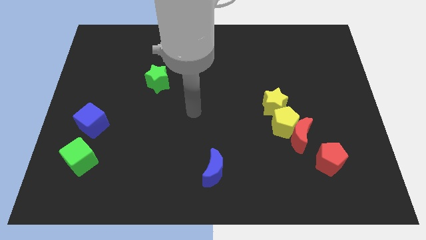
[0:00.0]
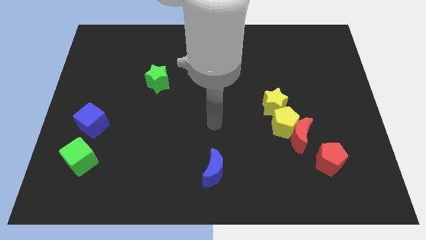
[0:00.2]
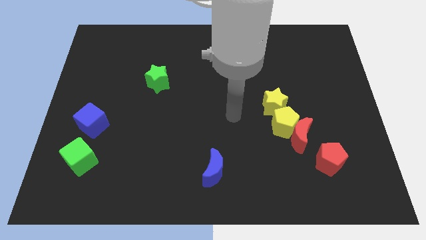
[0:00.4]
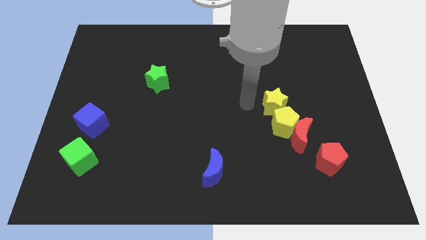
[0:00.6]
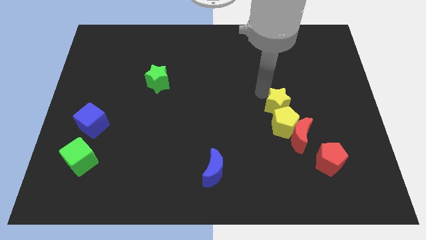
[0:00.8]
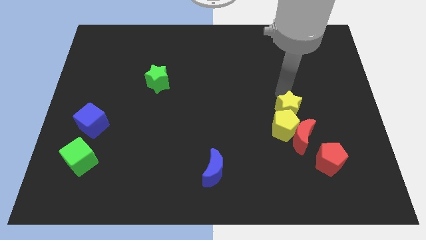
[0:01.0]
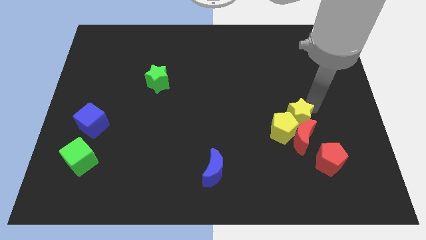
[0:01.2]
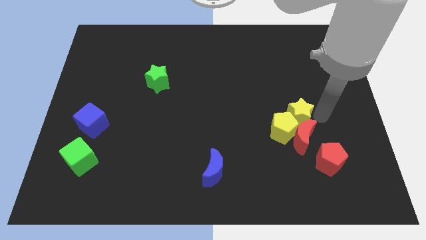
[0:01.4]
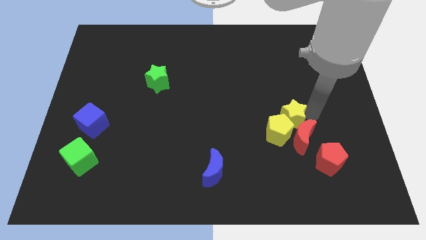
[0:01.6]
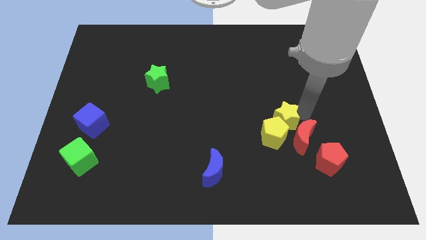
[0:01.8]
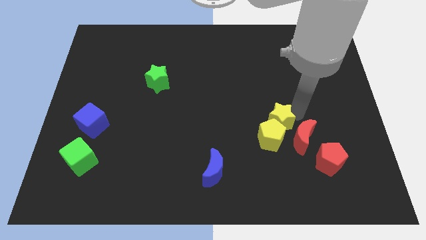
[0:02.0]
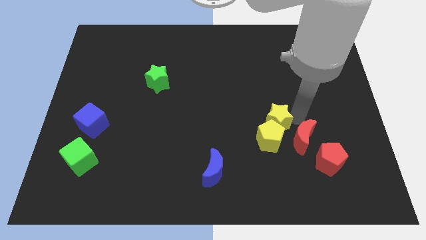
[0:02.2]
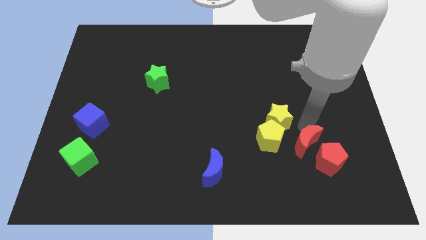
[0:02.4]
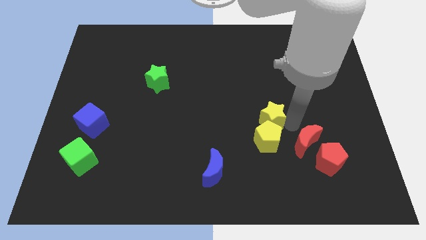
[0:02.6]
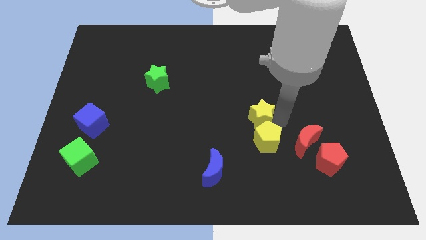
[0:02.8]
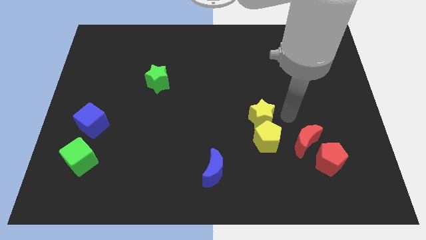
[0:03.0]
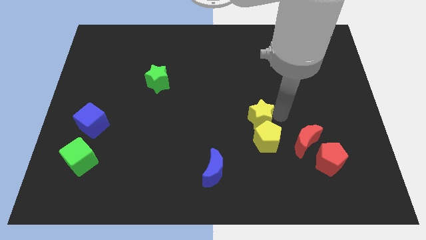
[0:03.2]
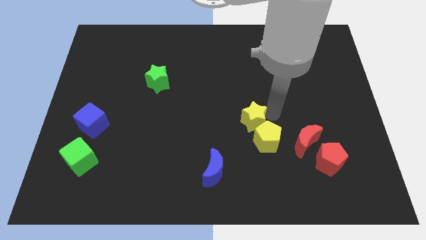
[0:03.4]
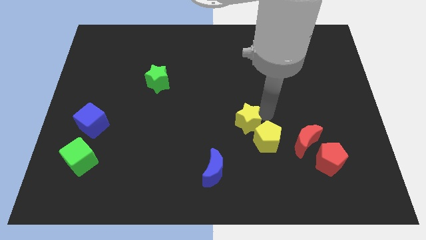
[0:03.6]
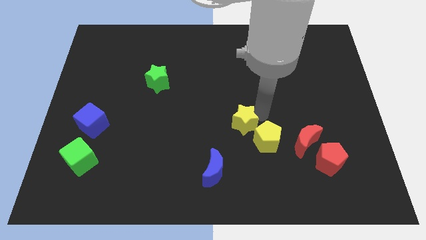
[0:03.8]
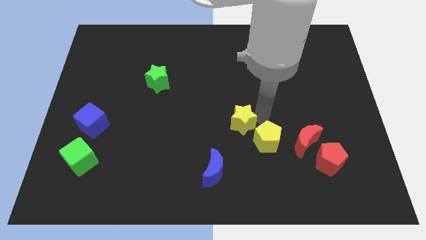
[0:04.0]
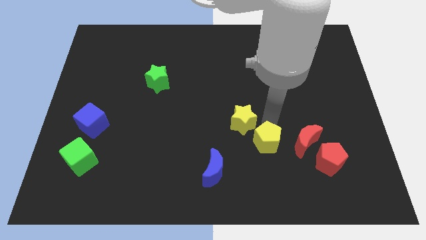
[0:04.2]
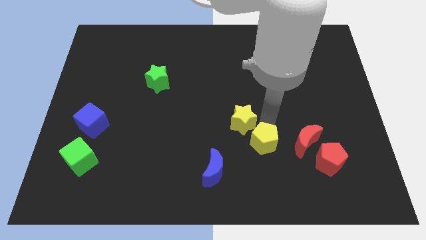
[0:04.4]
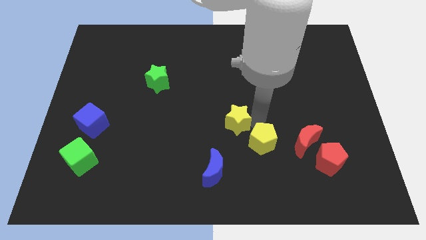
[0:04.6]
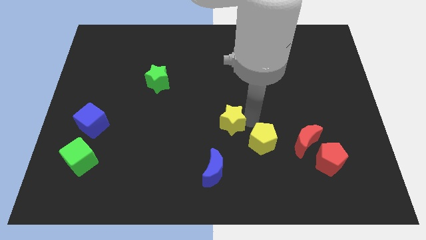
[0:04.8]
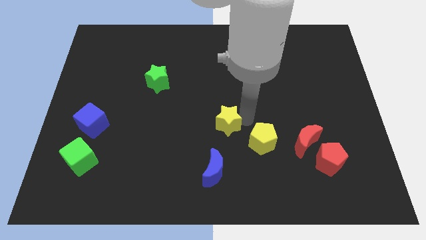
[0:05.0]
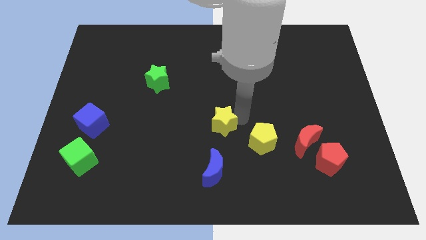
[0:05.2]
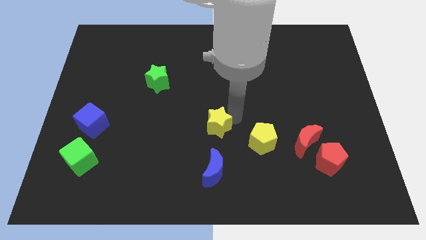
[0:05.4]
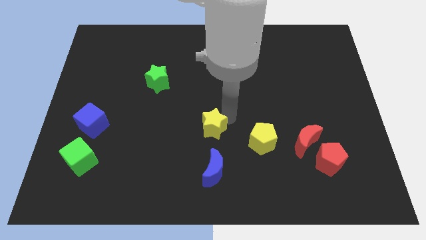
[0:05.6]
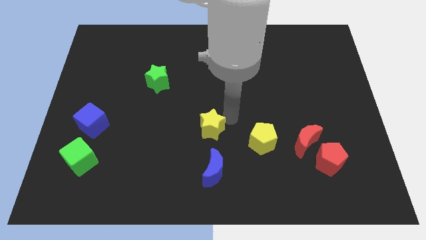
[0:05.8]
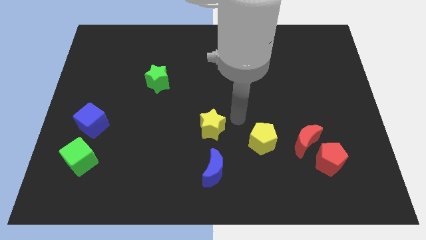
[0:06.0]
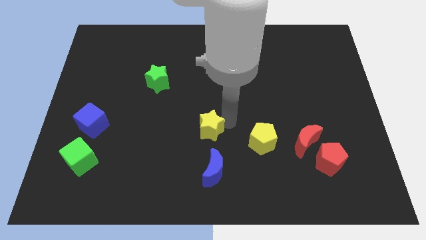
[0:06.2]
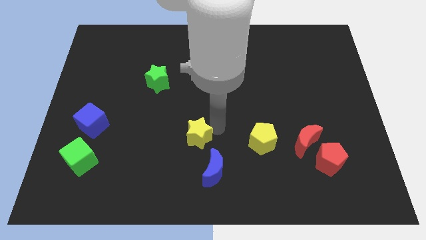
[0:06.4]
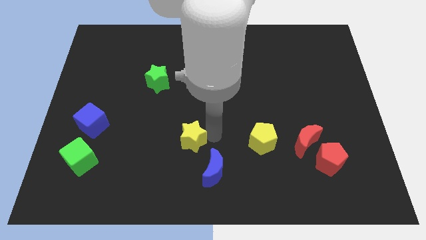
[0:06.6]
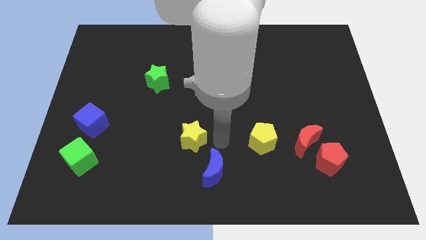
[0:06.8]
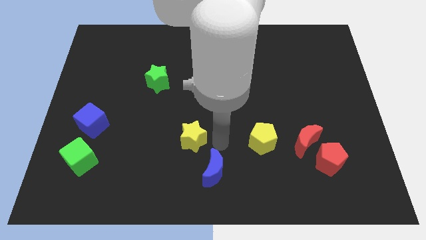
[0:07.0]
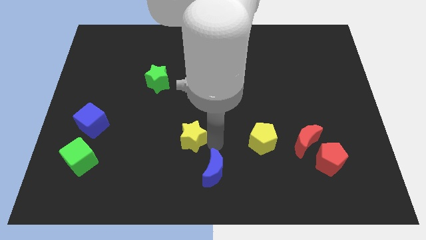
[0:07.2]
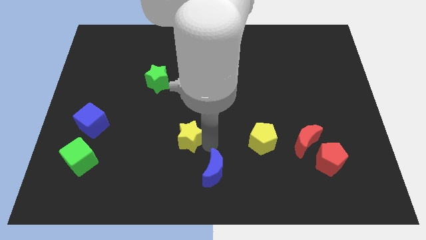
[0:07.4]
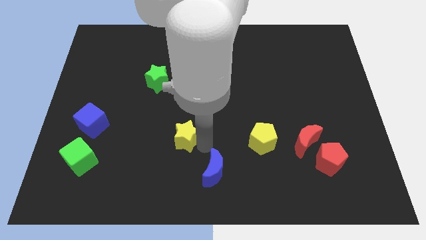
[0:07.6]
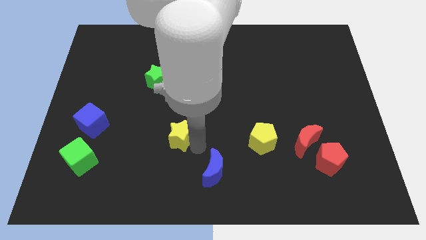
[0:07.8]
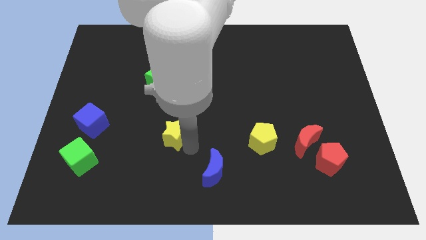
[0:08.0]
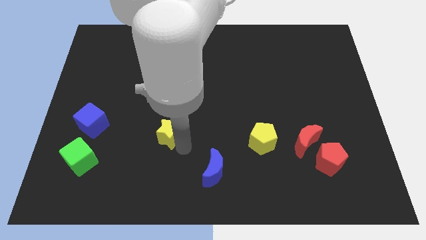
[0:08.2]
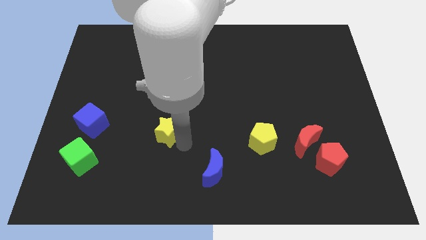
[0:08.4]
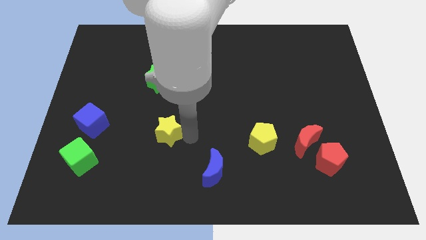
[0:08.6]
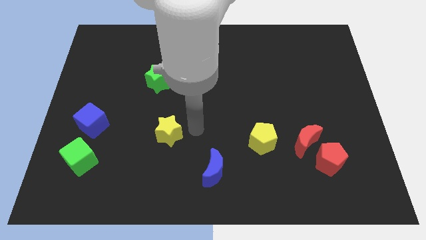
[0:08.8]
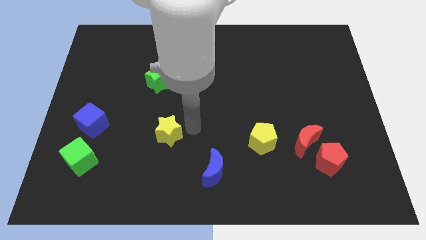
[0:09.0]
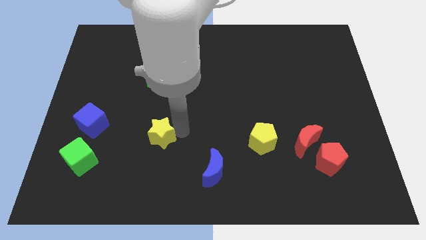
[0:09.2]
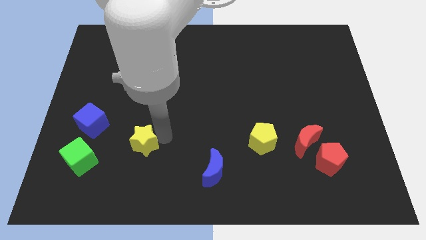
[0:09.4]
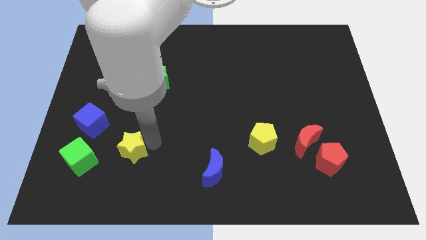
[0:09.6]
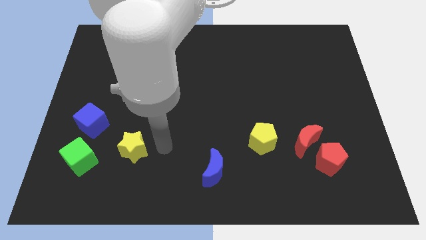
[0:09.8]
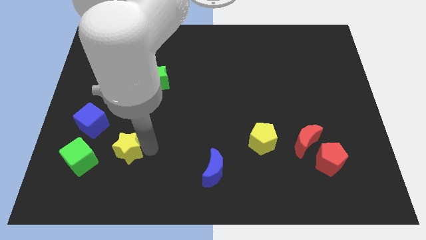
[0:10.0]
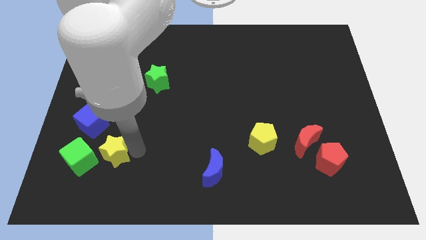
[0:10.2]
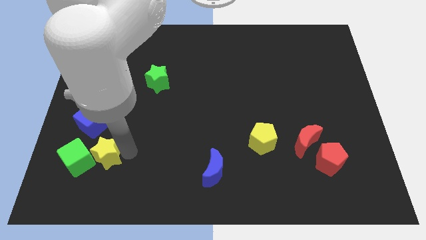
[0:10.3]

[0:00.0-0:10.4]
push the yellow star next to the green cube

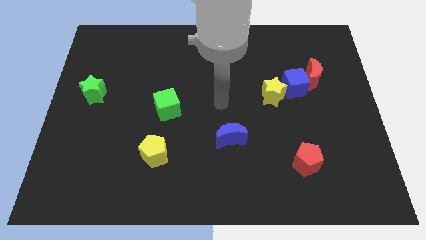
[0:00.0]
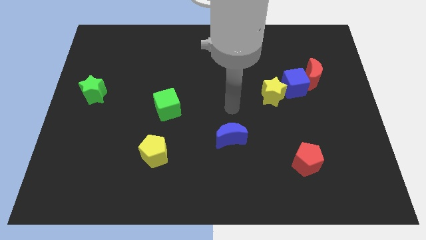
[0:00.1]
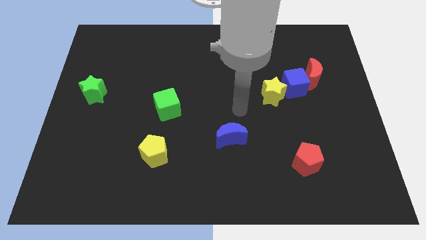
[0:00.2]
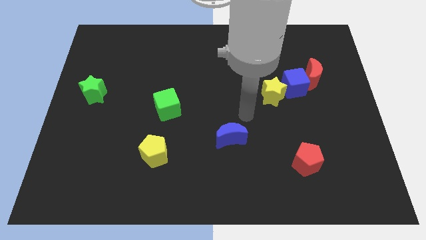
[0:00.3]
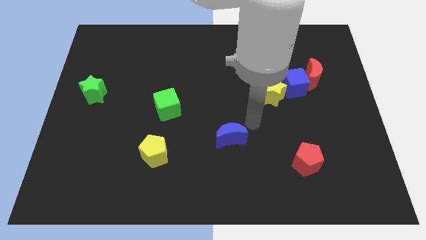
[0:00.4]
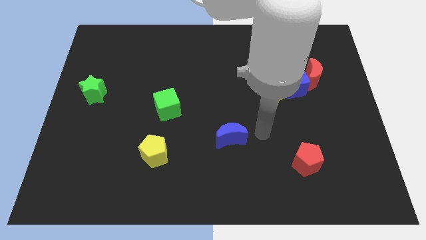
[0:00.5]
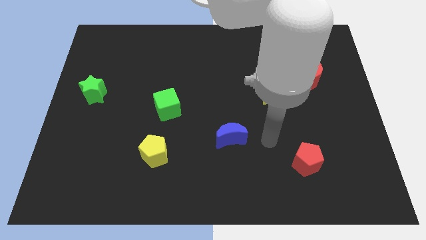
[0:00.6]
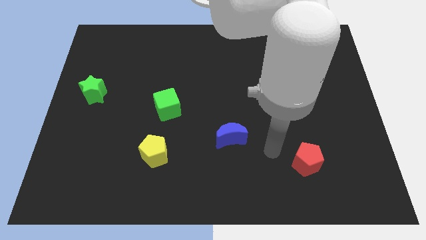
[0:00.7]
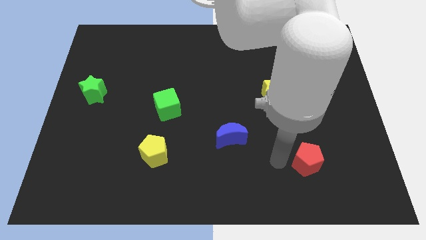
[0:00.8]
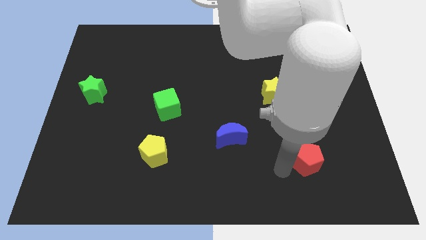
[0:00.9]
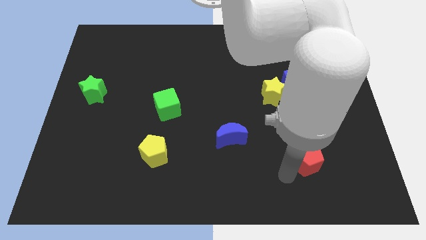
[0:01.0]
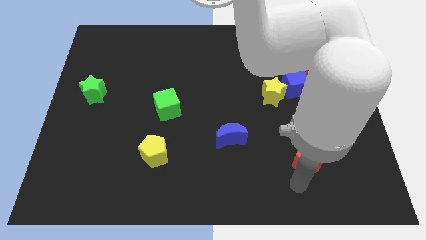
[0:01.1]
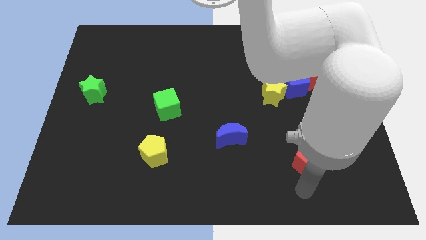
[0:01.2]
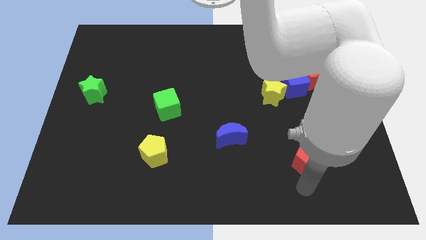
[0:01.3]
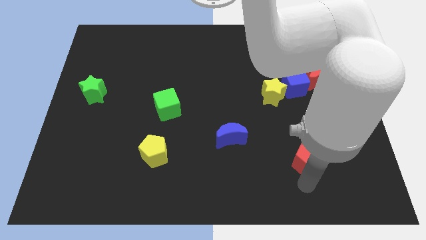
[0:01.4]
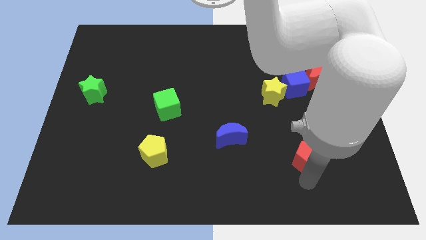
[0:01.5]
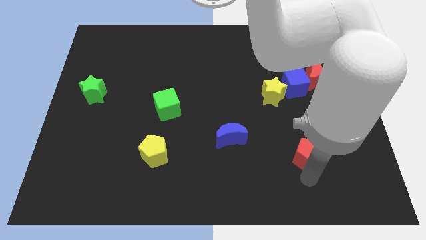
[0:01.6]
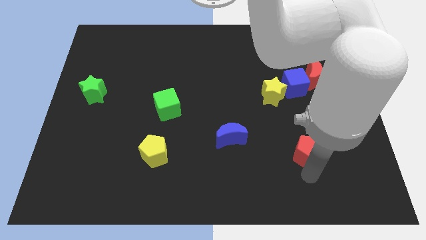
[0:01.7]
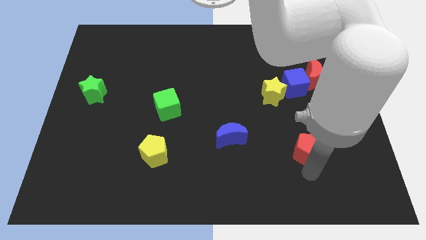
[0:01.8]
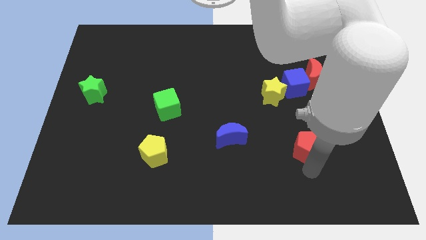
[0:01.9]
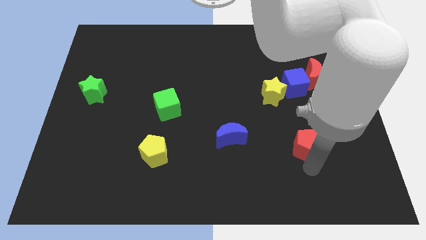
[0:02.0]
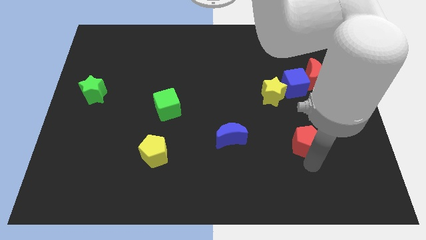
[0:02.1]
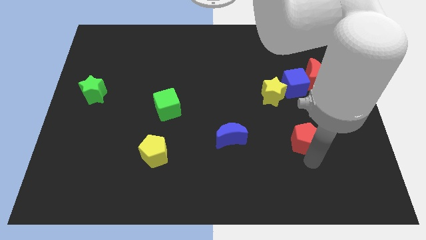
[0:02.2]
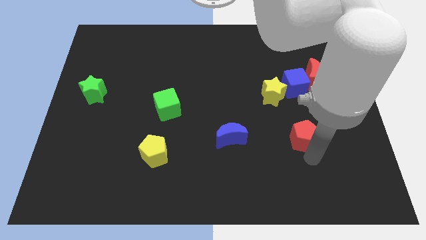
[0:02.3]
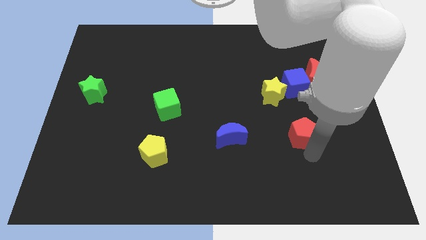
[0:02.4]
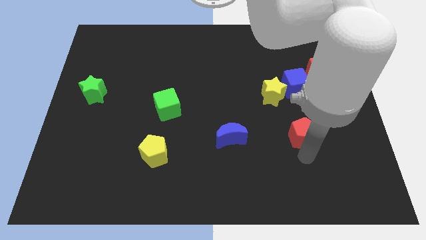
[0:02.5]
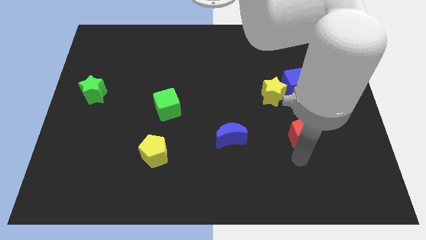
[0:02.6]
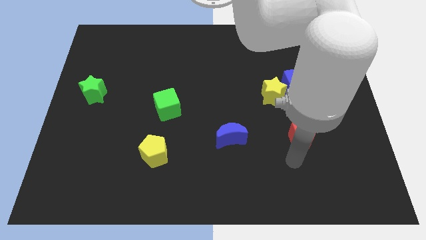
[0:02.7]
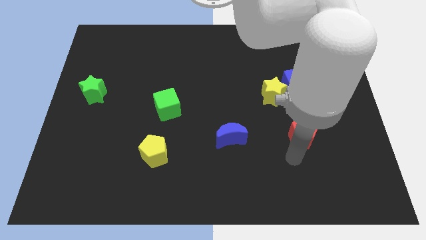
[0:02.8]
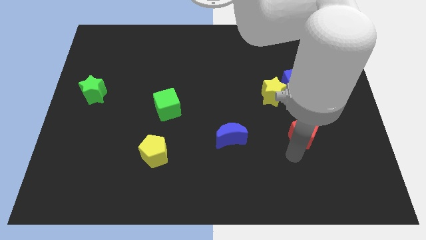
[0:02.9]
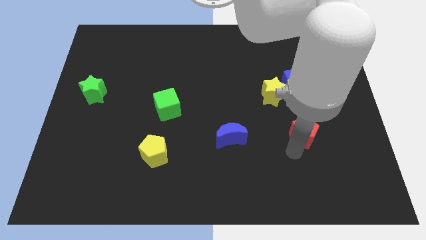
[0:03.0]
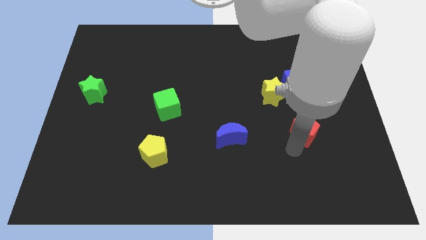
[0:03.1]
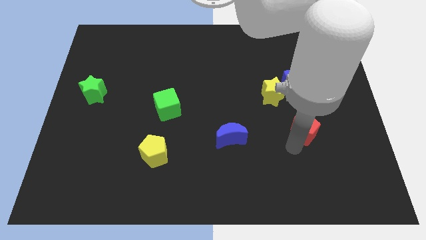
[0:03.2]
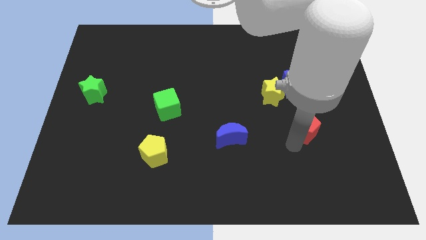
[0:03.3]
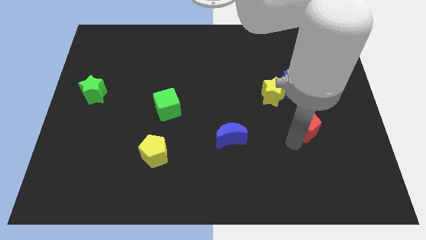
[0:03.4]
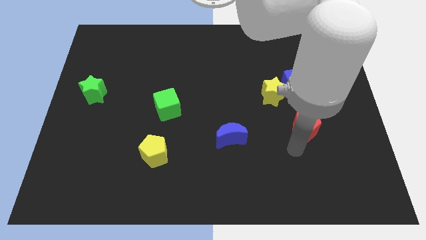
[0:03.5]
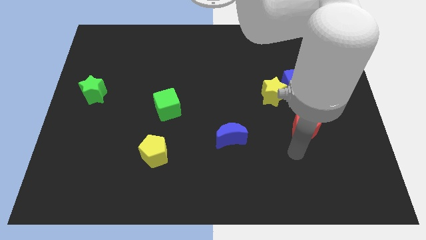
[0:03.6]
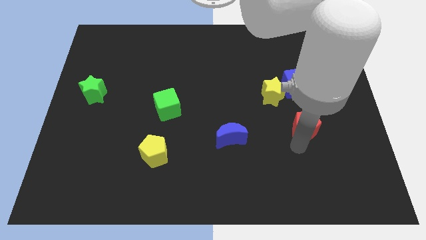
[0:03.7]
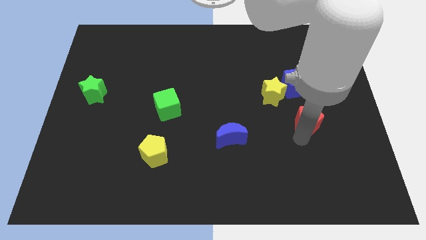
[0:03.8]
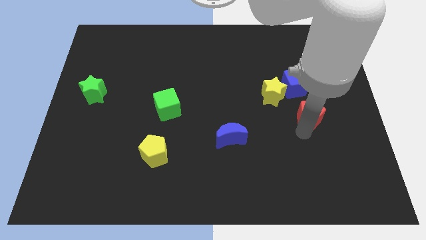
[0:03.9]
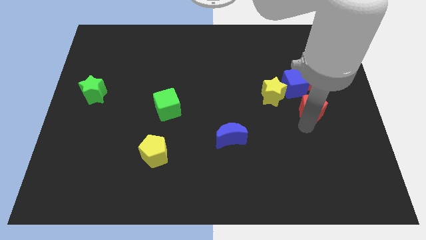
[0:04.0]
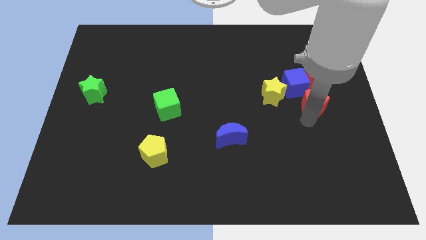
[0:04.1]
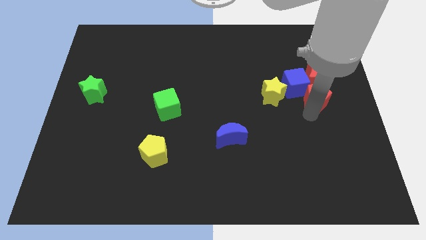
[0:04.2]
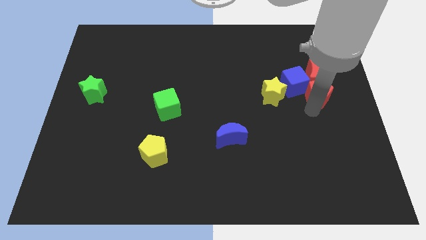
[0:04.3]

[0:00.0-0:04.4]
put the red pentagon towards the red moon
